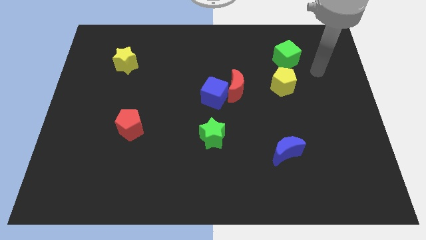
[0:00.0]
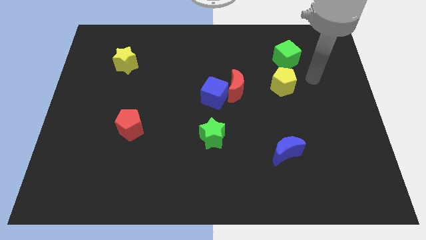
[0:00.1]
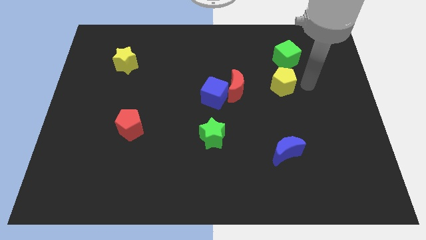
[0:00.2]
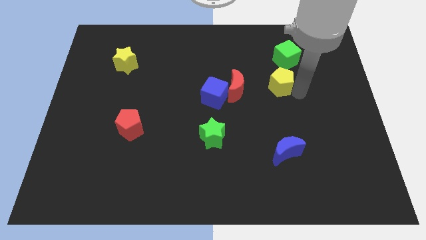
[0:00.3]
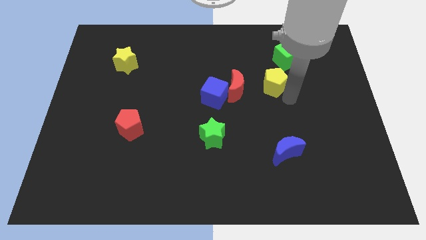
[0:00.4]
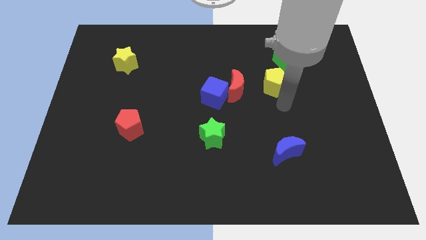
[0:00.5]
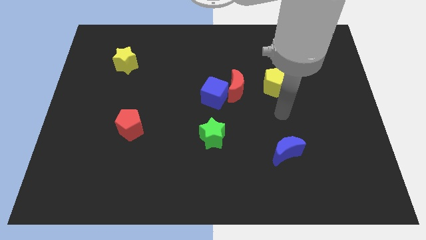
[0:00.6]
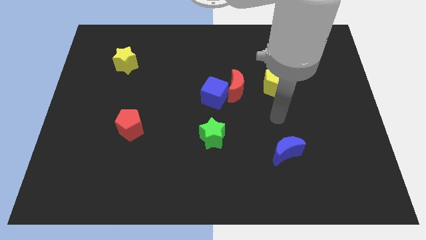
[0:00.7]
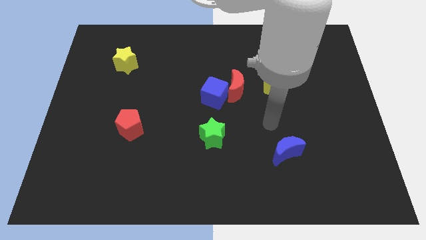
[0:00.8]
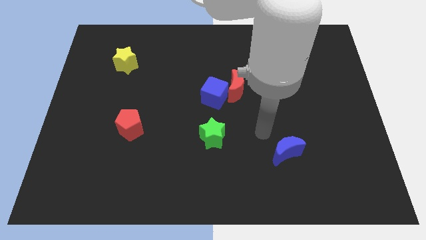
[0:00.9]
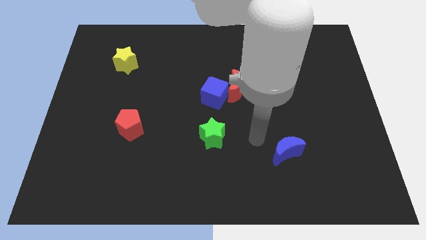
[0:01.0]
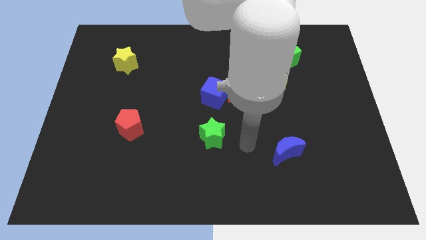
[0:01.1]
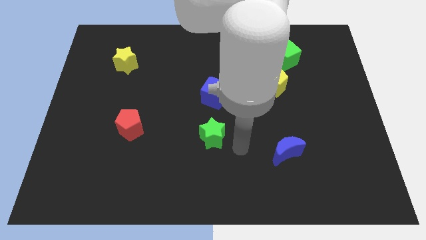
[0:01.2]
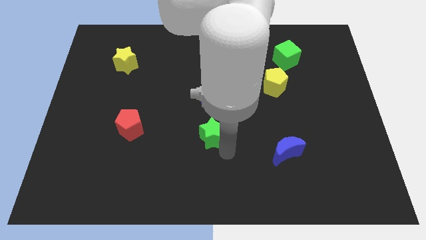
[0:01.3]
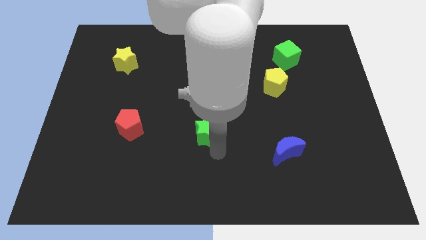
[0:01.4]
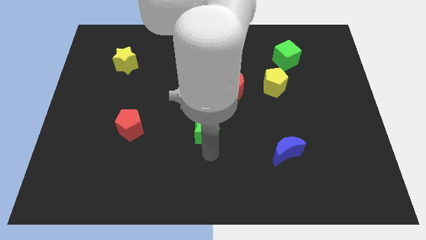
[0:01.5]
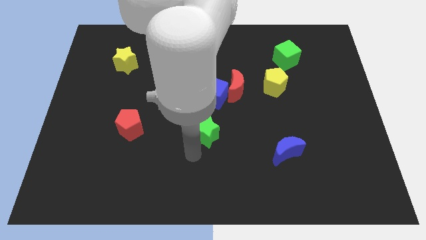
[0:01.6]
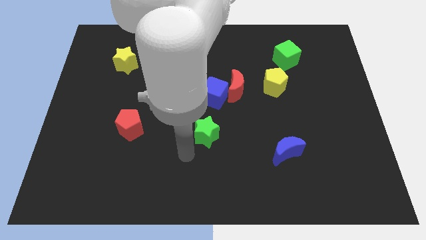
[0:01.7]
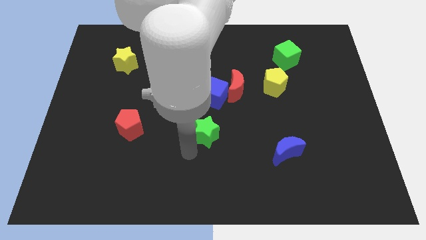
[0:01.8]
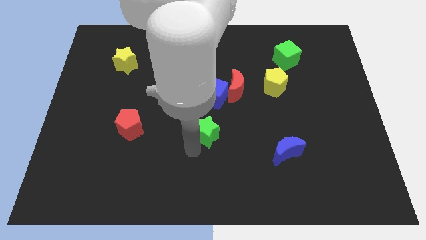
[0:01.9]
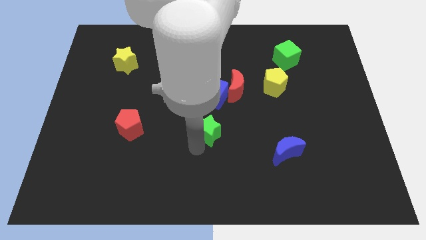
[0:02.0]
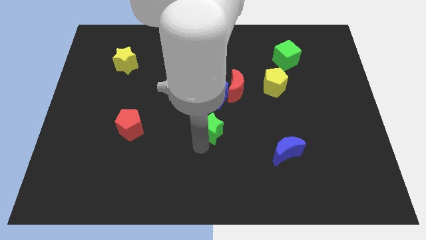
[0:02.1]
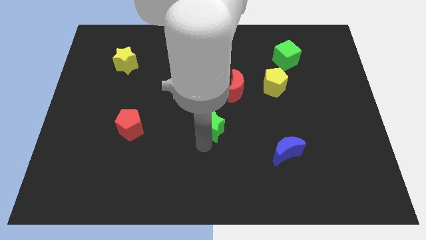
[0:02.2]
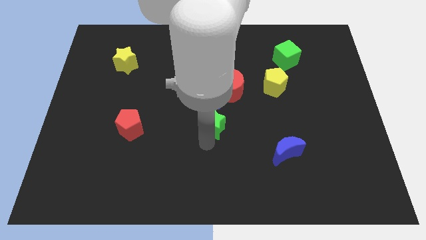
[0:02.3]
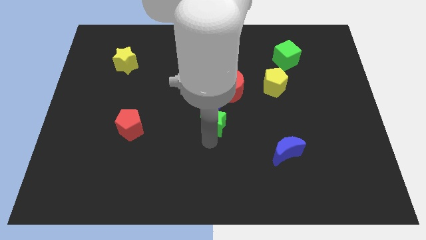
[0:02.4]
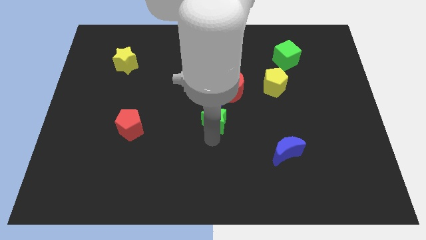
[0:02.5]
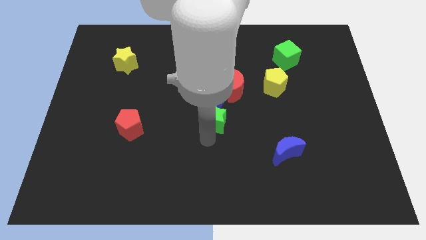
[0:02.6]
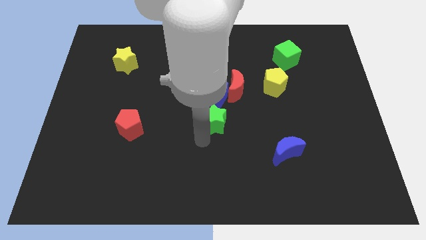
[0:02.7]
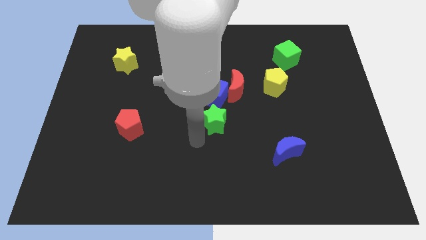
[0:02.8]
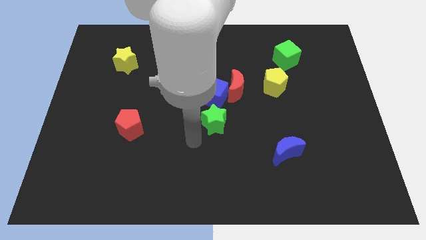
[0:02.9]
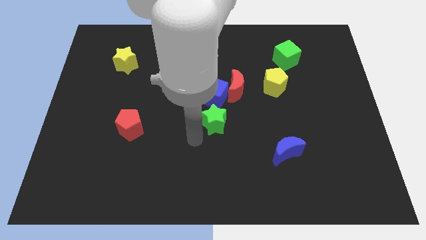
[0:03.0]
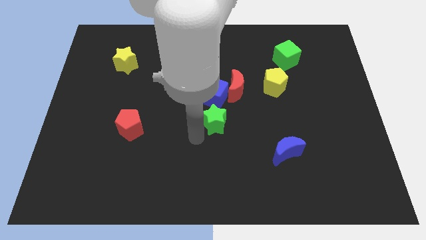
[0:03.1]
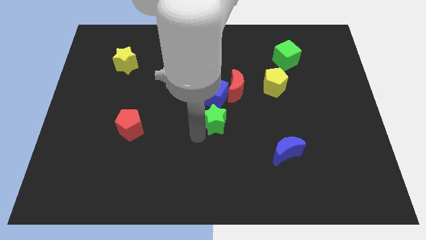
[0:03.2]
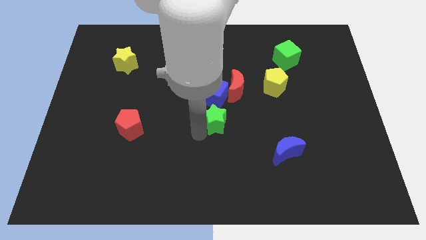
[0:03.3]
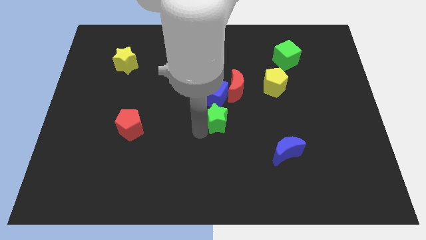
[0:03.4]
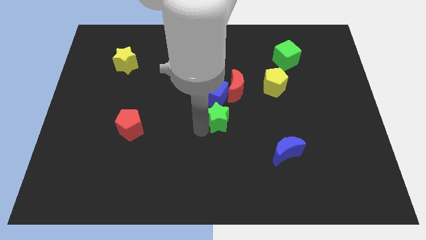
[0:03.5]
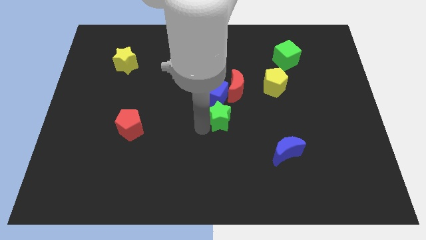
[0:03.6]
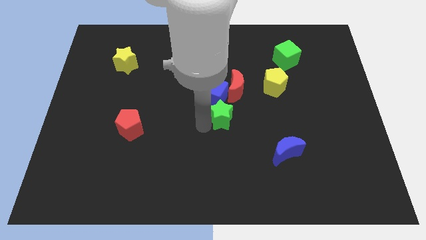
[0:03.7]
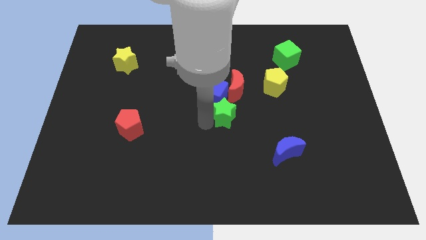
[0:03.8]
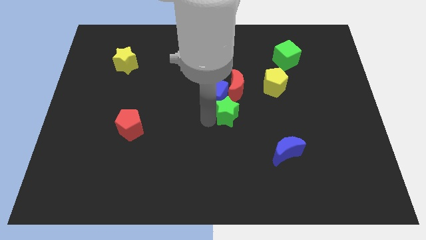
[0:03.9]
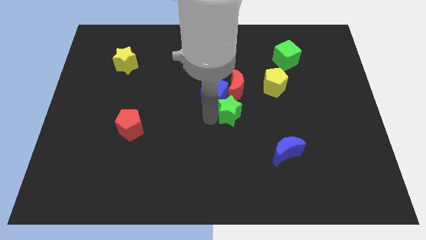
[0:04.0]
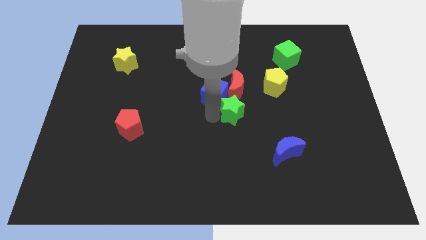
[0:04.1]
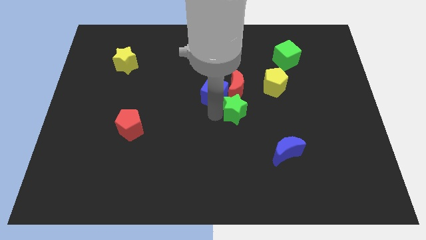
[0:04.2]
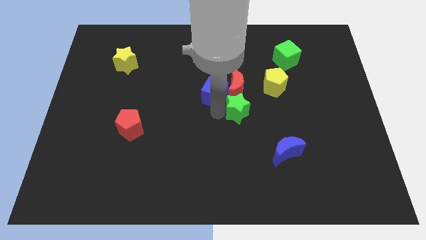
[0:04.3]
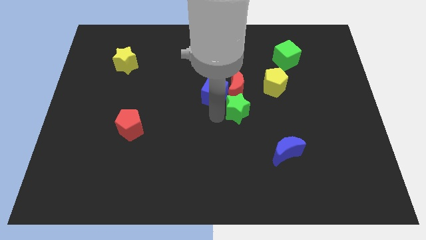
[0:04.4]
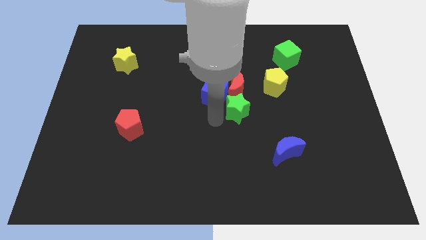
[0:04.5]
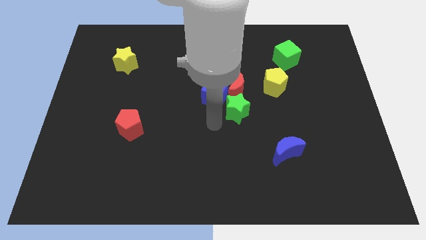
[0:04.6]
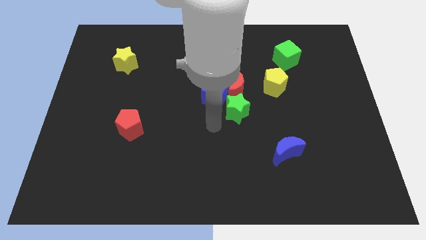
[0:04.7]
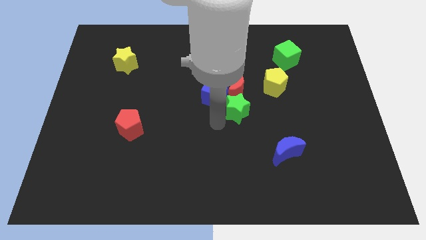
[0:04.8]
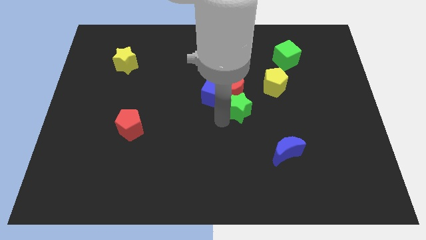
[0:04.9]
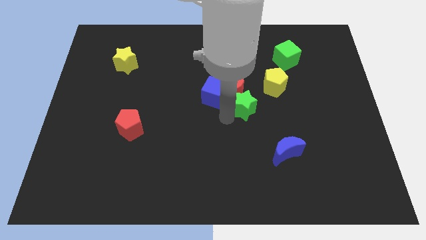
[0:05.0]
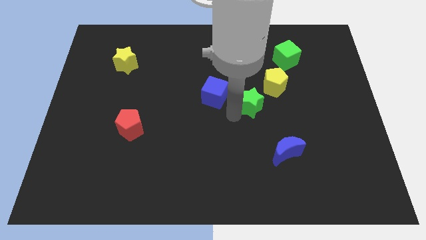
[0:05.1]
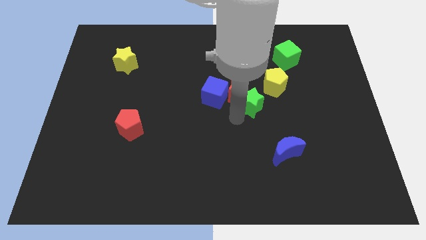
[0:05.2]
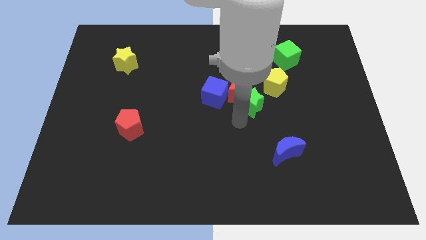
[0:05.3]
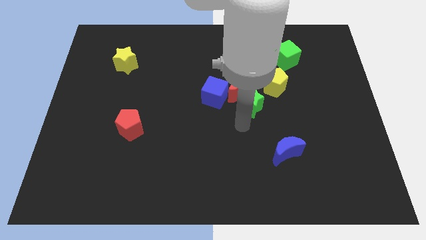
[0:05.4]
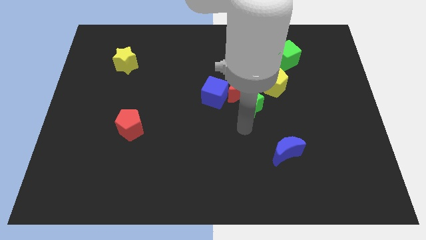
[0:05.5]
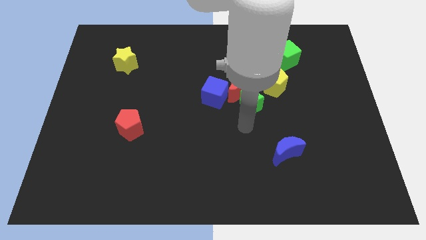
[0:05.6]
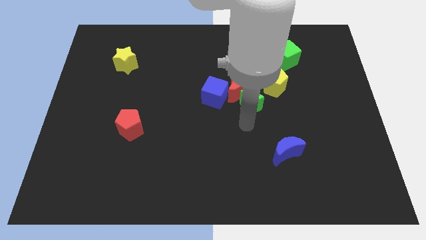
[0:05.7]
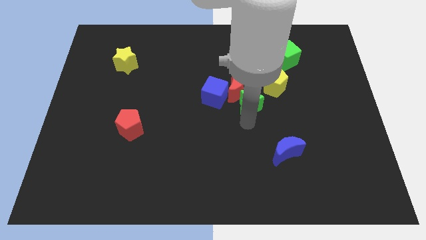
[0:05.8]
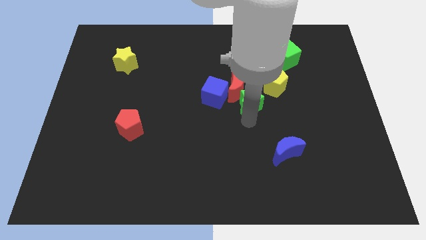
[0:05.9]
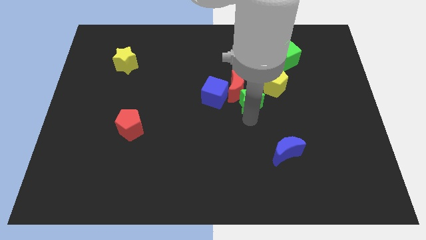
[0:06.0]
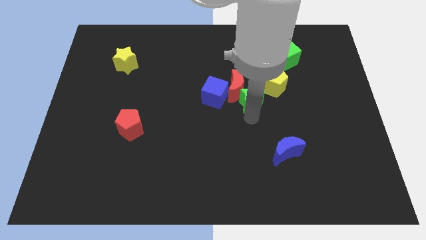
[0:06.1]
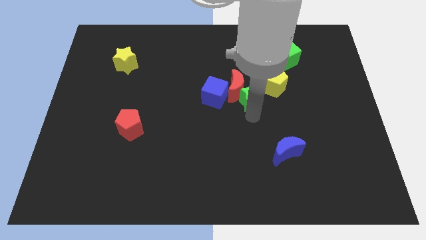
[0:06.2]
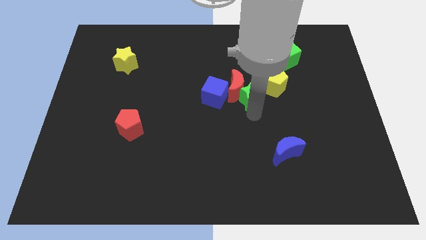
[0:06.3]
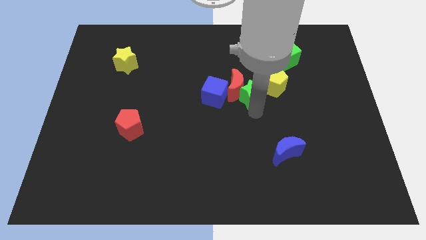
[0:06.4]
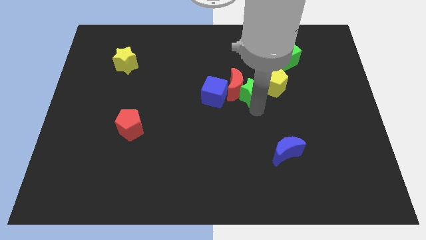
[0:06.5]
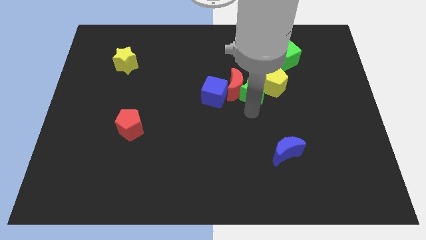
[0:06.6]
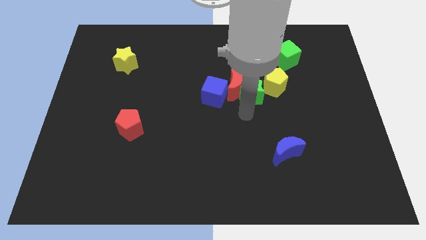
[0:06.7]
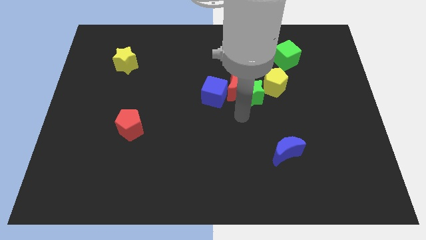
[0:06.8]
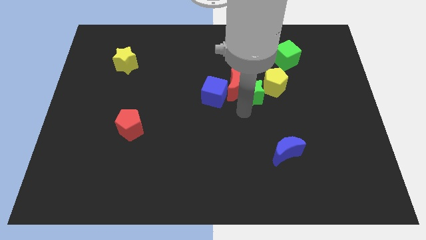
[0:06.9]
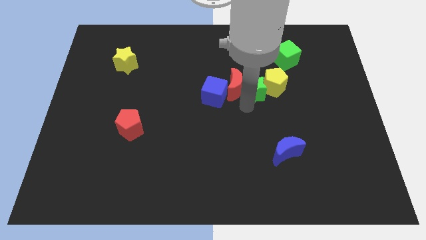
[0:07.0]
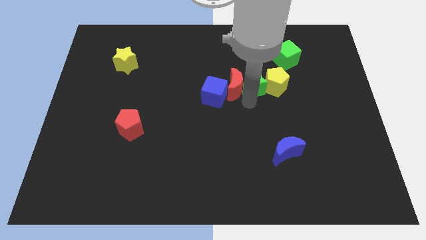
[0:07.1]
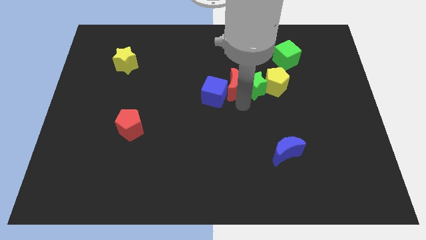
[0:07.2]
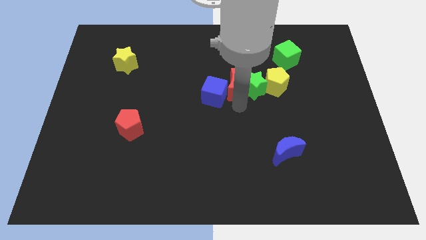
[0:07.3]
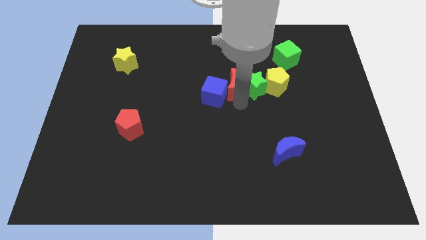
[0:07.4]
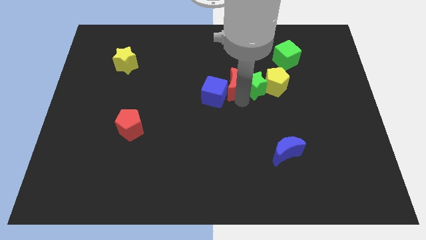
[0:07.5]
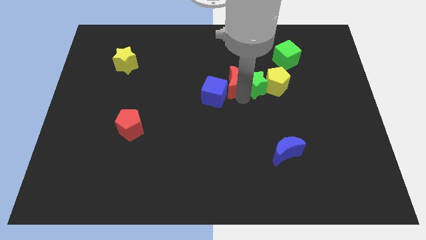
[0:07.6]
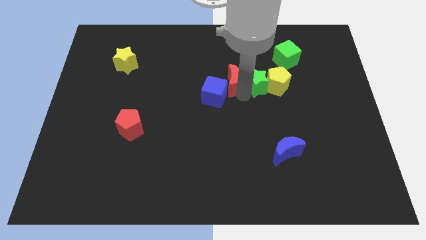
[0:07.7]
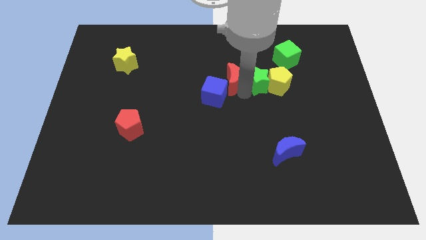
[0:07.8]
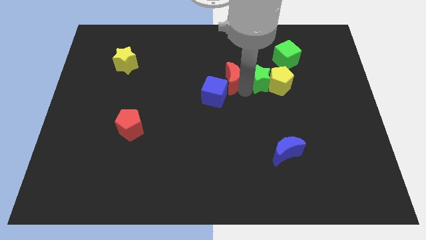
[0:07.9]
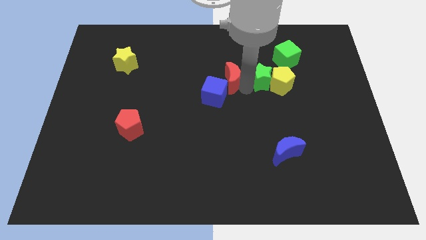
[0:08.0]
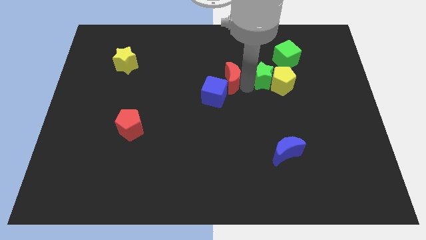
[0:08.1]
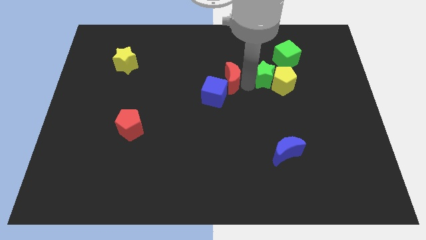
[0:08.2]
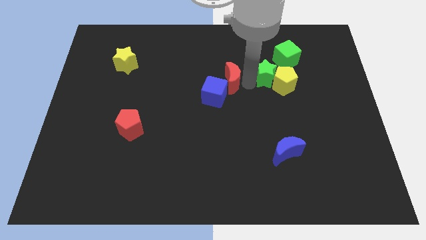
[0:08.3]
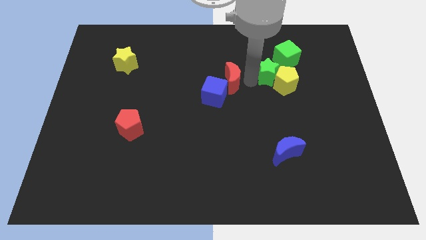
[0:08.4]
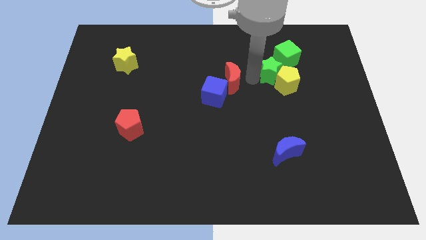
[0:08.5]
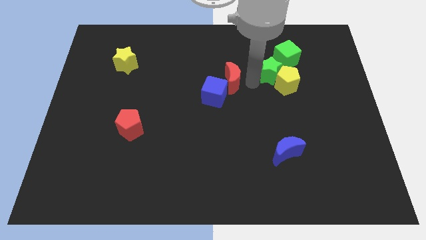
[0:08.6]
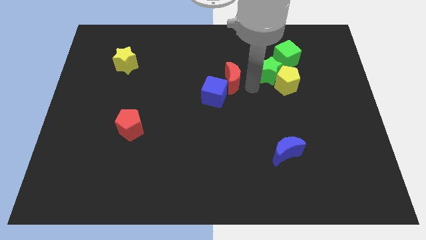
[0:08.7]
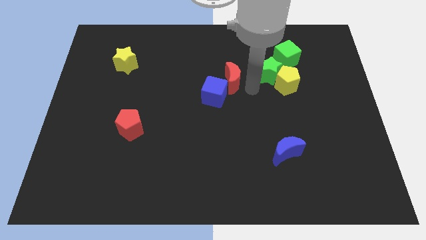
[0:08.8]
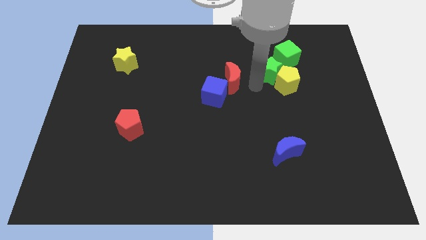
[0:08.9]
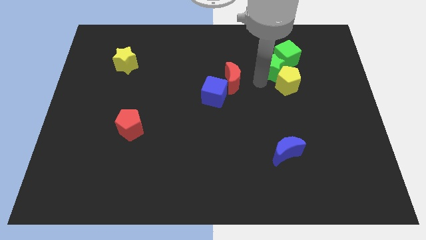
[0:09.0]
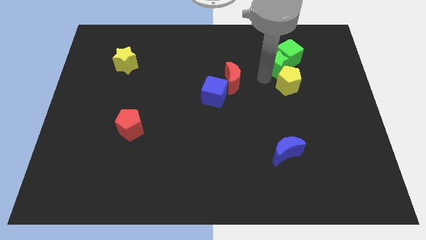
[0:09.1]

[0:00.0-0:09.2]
put the green star next to the green cube
